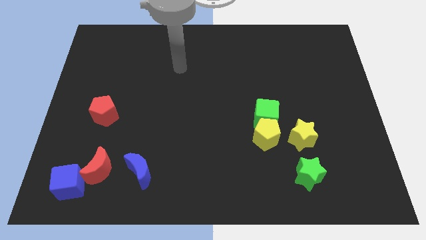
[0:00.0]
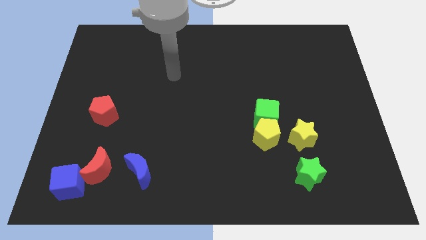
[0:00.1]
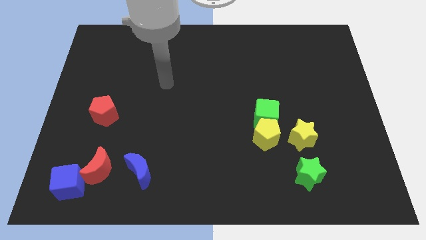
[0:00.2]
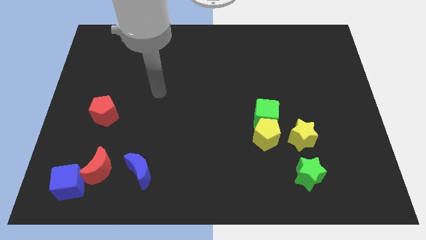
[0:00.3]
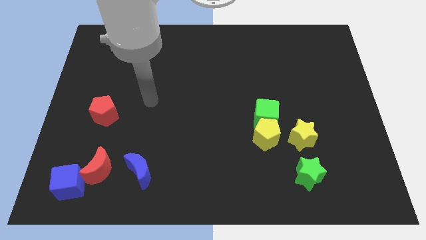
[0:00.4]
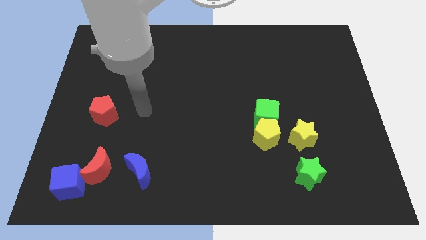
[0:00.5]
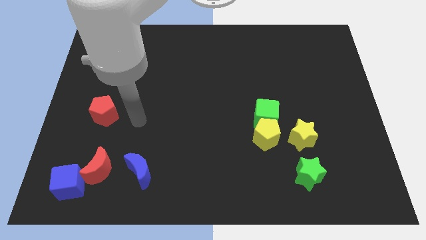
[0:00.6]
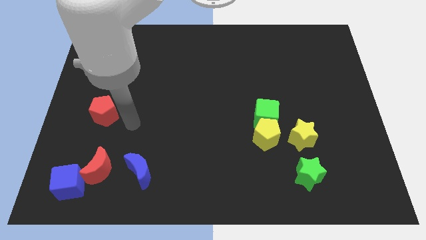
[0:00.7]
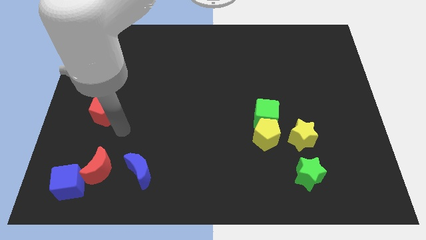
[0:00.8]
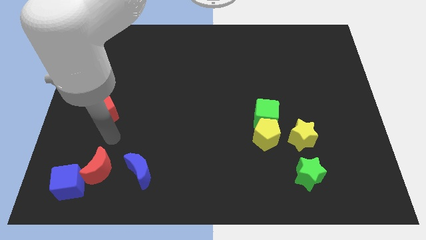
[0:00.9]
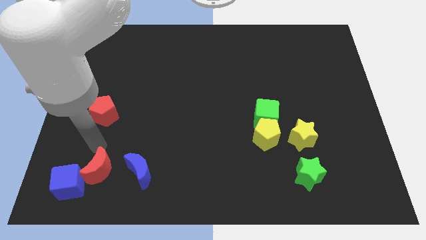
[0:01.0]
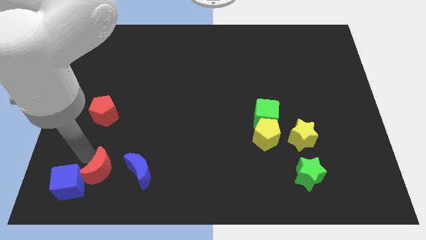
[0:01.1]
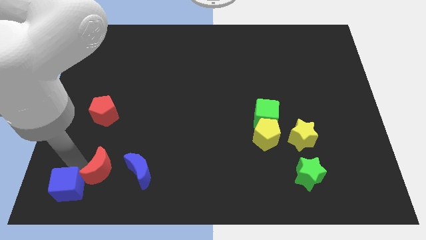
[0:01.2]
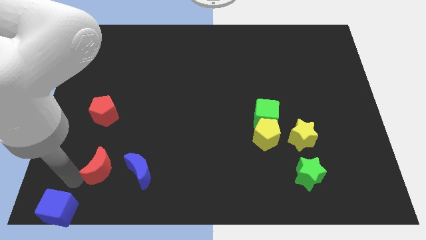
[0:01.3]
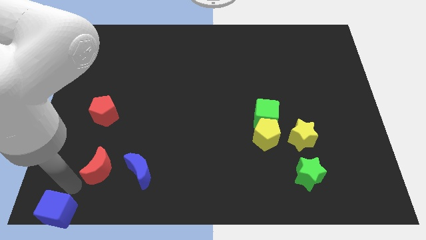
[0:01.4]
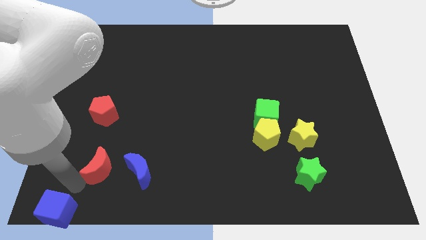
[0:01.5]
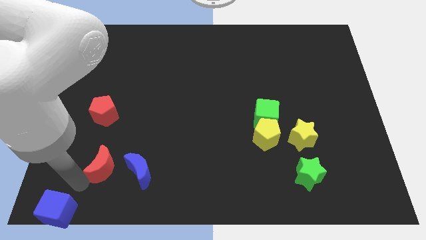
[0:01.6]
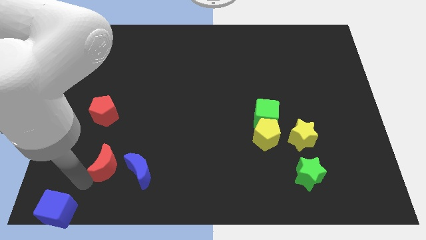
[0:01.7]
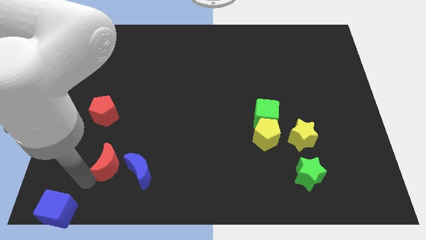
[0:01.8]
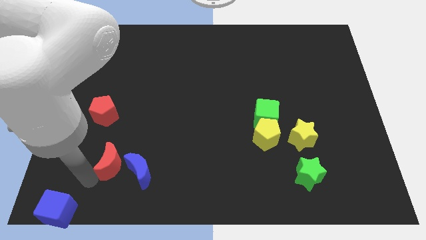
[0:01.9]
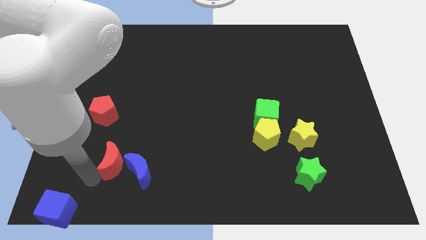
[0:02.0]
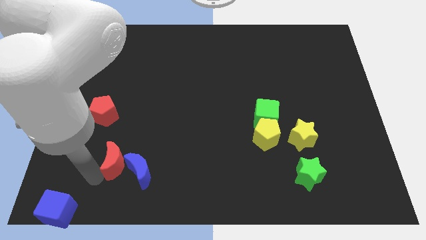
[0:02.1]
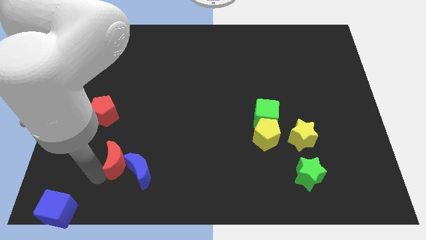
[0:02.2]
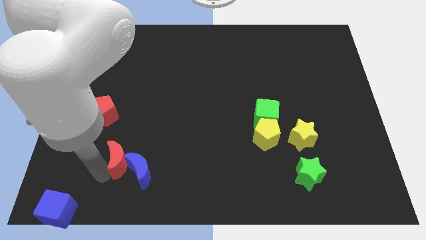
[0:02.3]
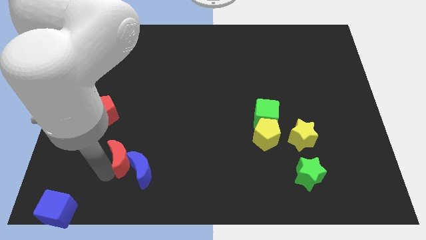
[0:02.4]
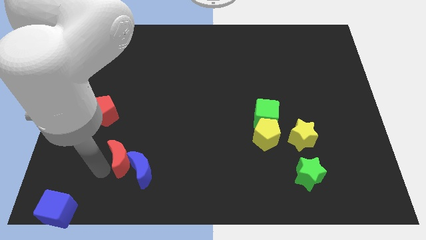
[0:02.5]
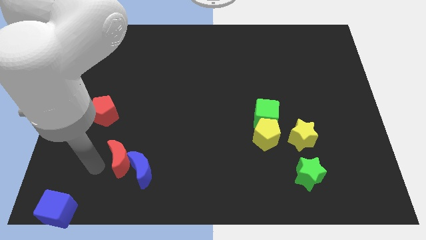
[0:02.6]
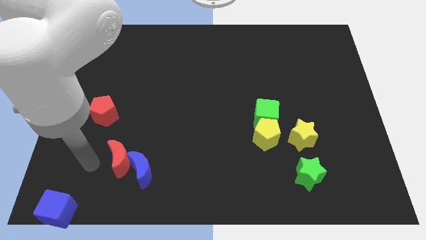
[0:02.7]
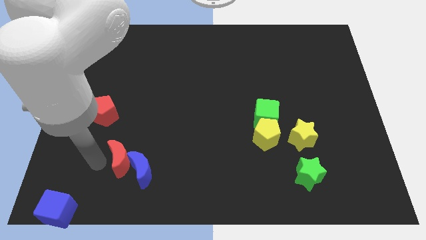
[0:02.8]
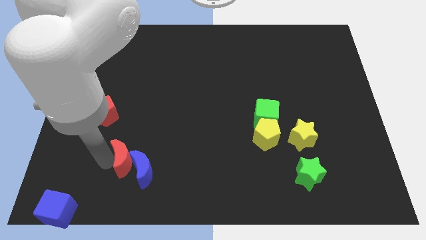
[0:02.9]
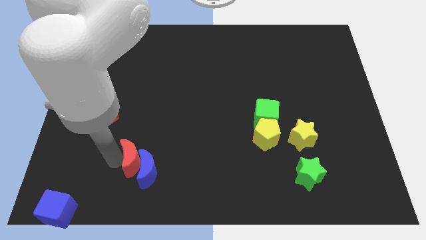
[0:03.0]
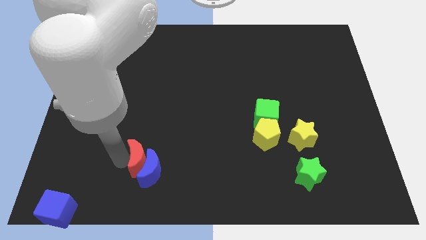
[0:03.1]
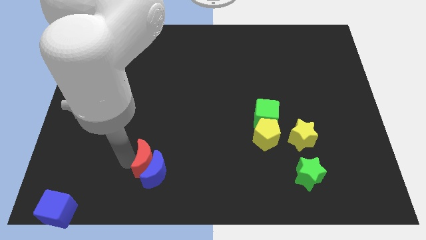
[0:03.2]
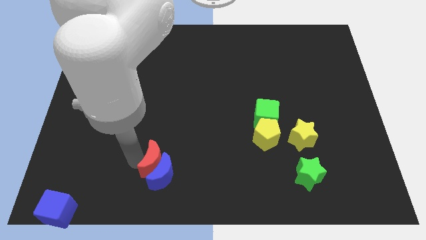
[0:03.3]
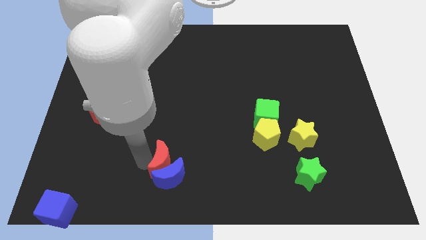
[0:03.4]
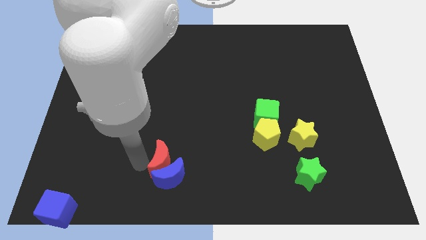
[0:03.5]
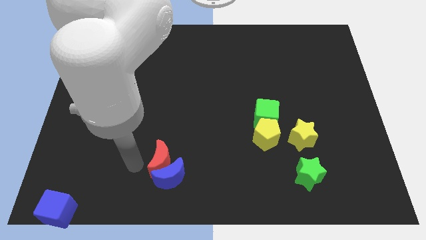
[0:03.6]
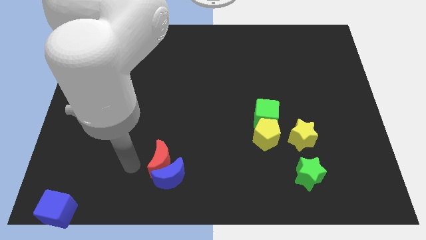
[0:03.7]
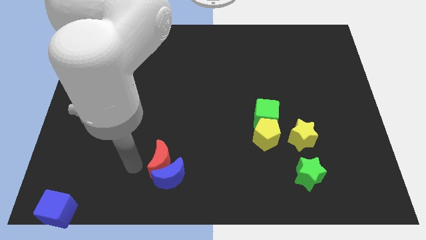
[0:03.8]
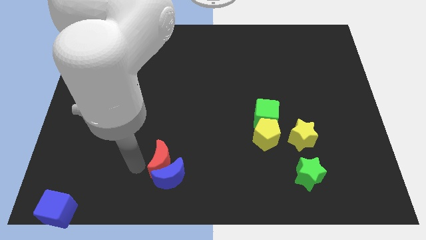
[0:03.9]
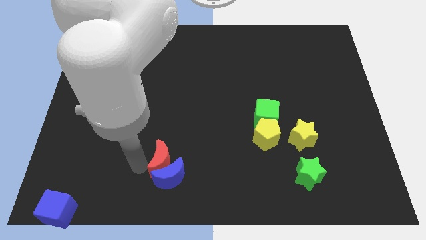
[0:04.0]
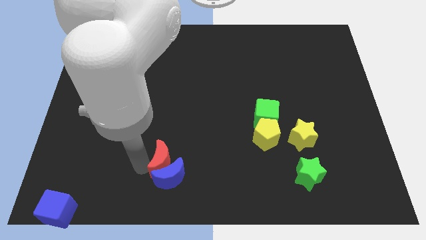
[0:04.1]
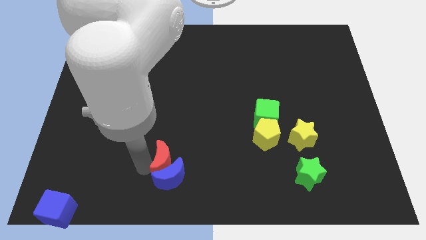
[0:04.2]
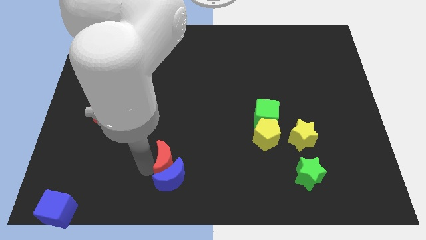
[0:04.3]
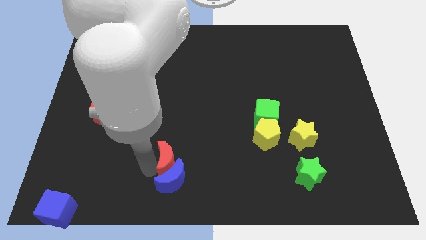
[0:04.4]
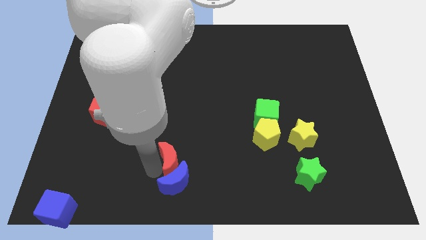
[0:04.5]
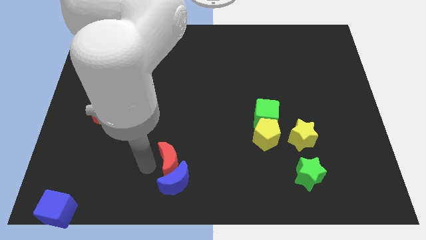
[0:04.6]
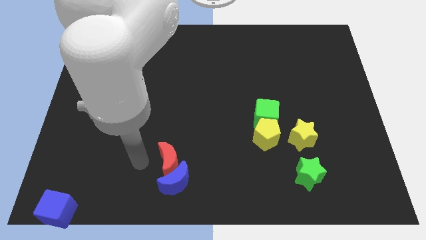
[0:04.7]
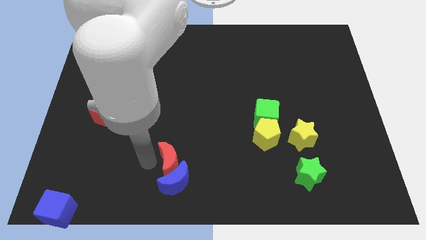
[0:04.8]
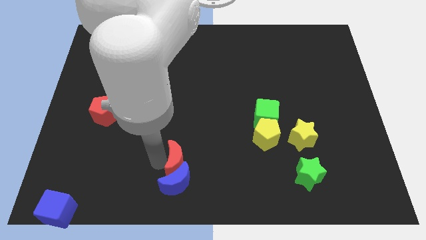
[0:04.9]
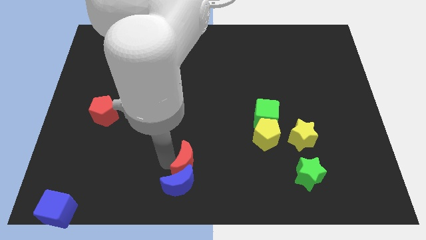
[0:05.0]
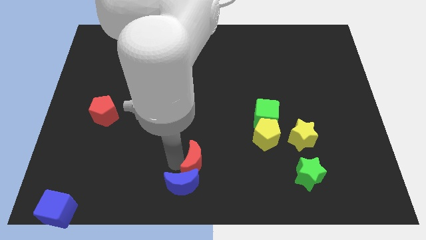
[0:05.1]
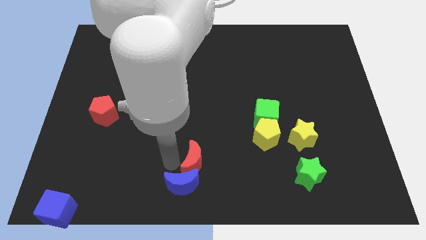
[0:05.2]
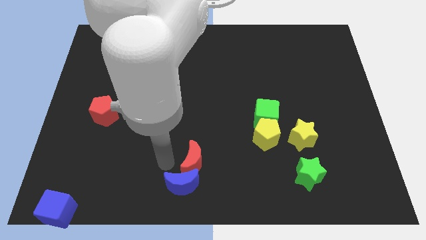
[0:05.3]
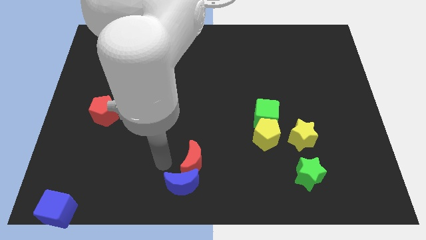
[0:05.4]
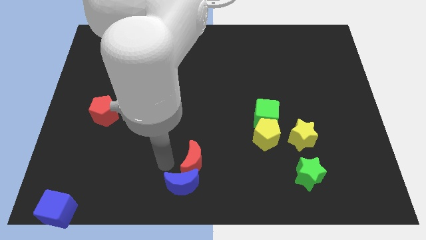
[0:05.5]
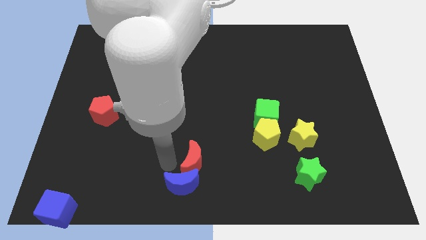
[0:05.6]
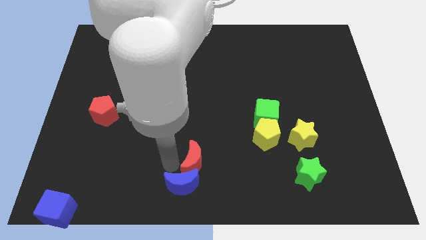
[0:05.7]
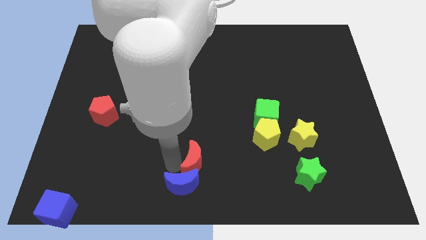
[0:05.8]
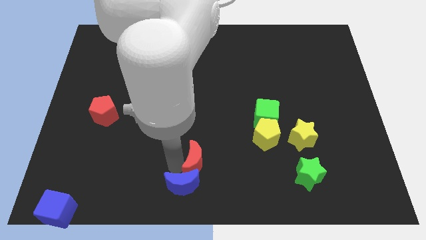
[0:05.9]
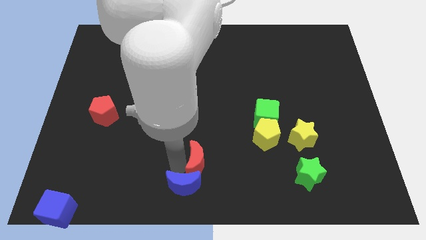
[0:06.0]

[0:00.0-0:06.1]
move the red moon to the right

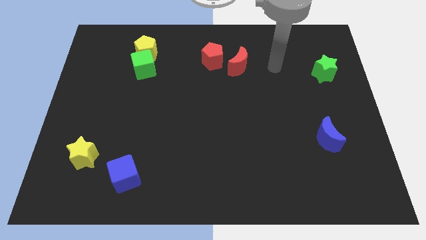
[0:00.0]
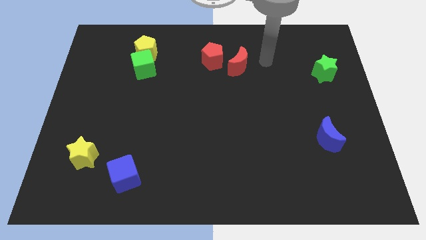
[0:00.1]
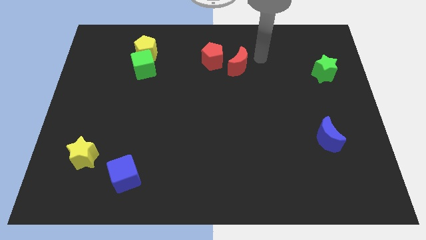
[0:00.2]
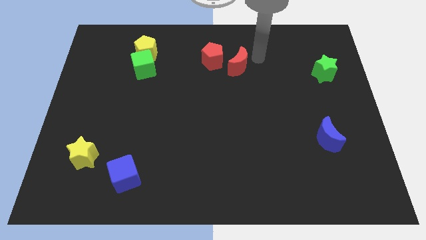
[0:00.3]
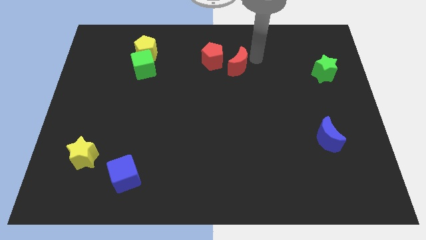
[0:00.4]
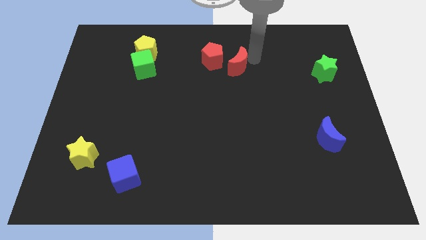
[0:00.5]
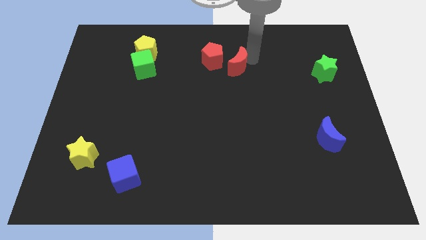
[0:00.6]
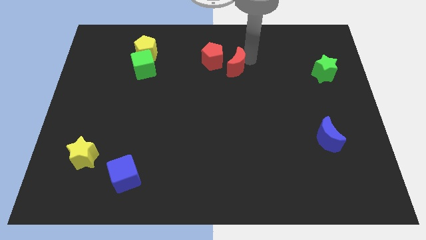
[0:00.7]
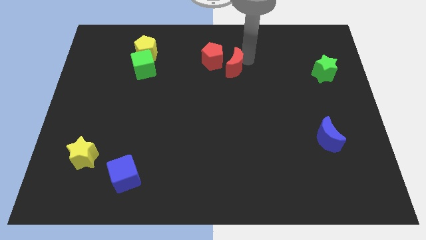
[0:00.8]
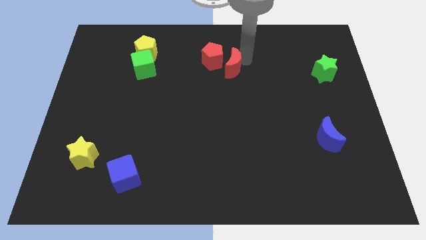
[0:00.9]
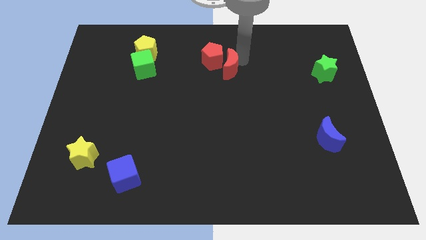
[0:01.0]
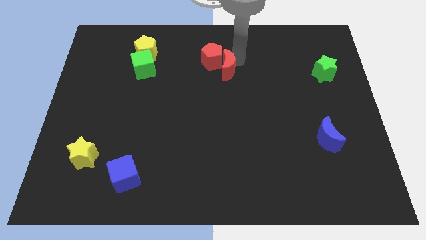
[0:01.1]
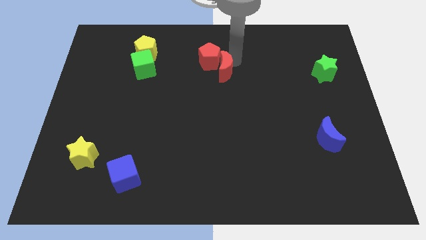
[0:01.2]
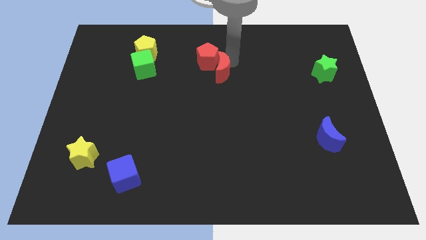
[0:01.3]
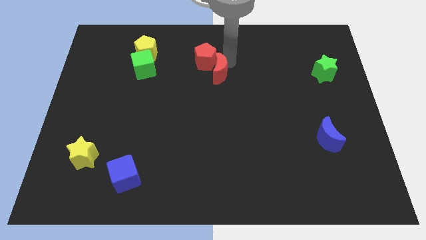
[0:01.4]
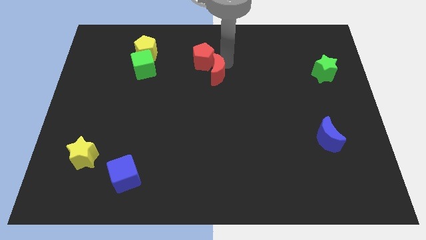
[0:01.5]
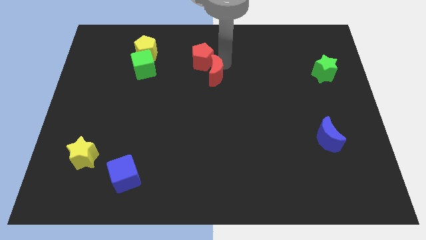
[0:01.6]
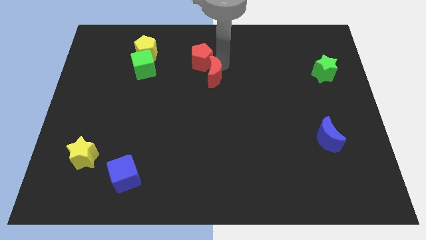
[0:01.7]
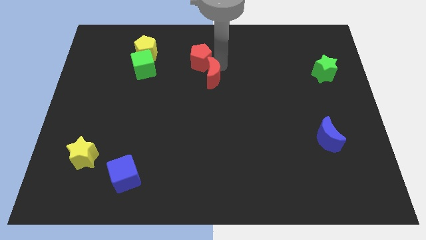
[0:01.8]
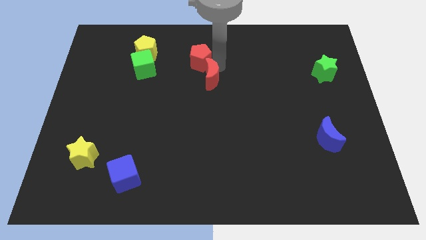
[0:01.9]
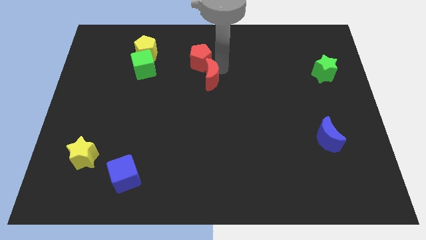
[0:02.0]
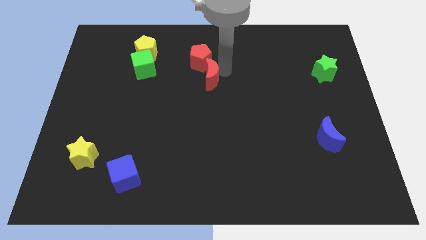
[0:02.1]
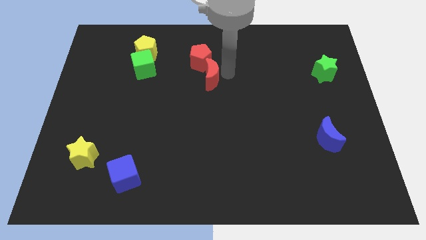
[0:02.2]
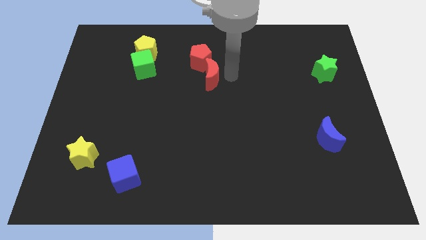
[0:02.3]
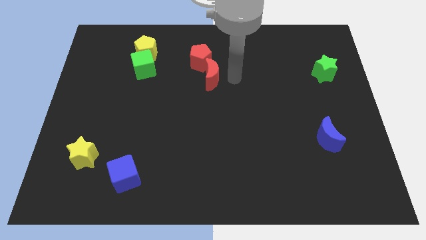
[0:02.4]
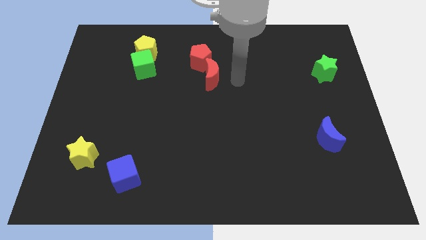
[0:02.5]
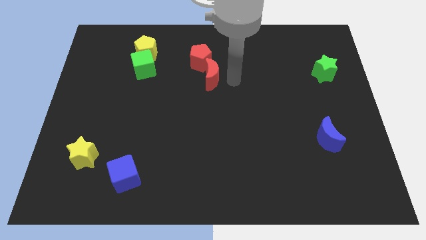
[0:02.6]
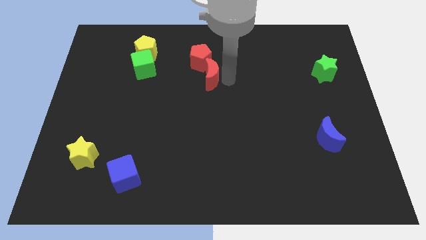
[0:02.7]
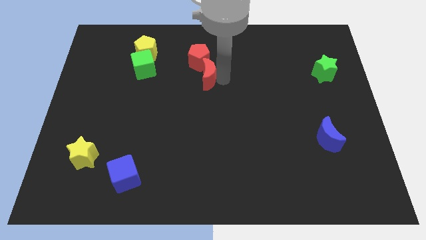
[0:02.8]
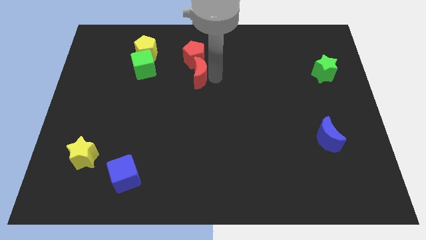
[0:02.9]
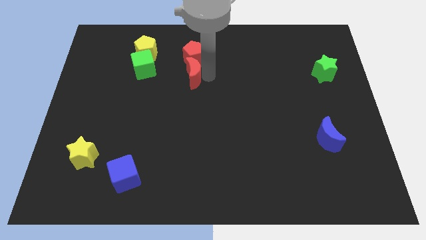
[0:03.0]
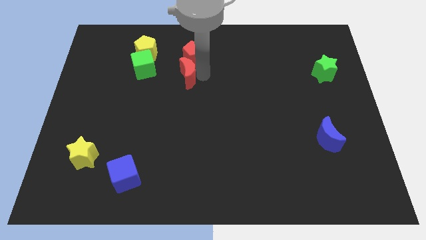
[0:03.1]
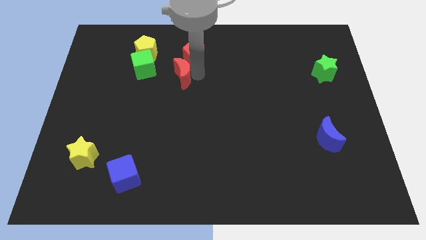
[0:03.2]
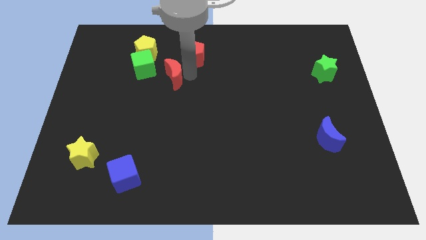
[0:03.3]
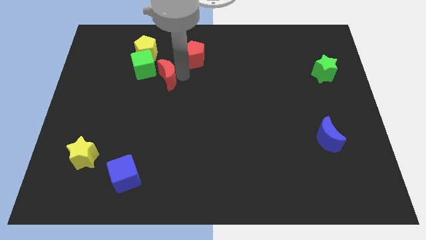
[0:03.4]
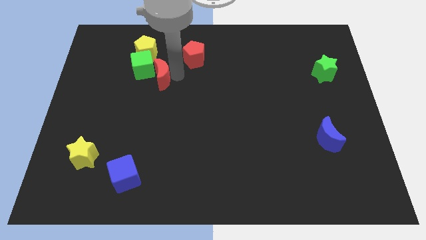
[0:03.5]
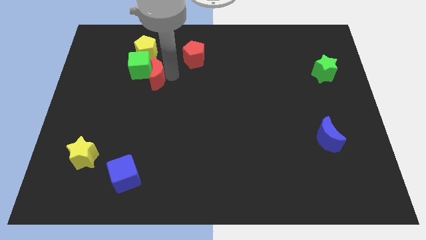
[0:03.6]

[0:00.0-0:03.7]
move the red moon to the left
